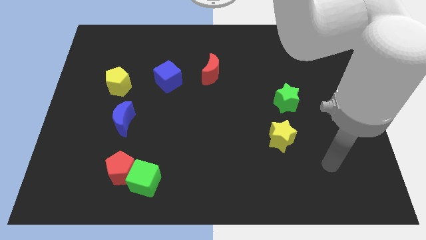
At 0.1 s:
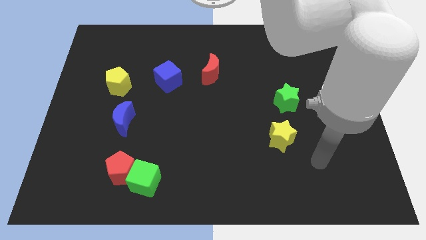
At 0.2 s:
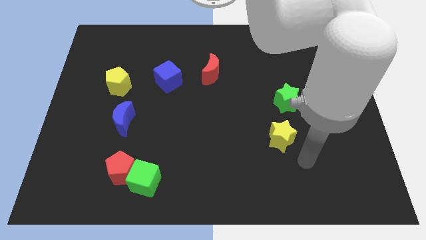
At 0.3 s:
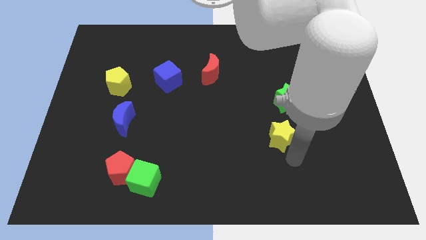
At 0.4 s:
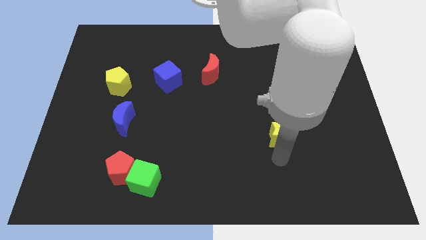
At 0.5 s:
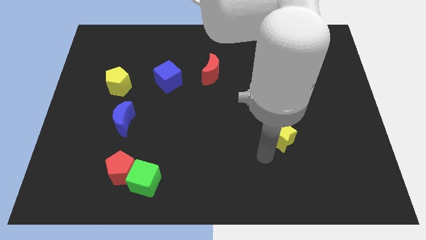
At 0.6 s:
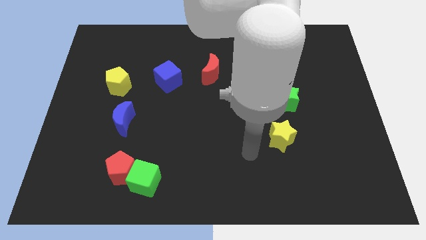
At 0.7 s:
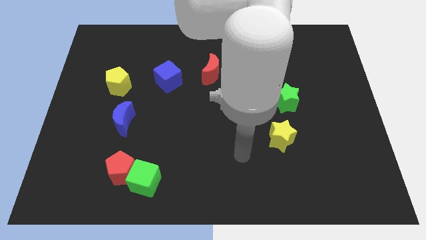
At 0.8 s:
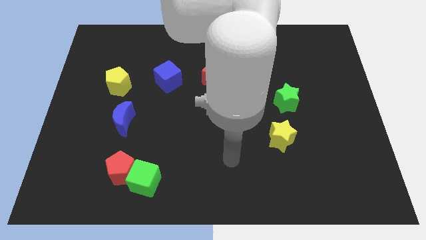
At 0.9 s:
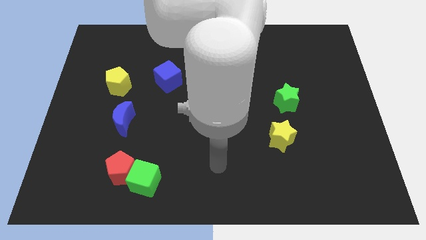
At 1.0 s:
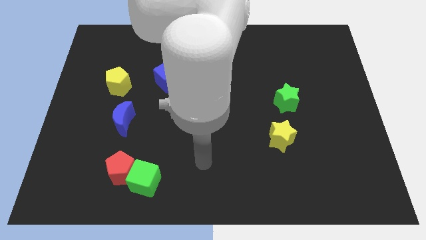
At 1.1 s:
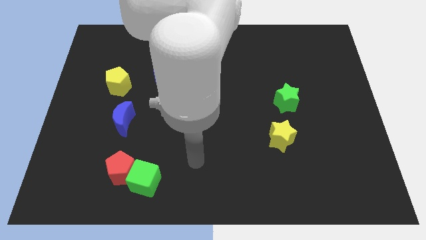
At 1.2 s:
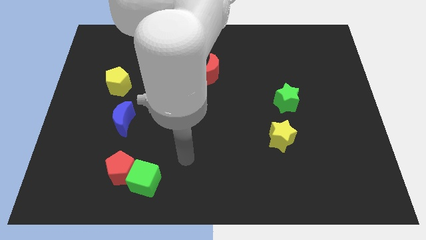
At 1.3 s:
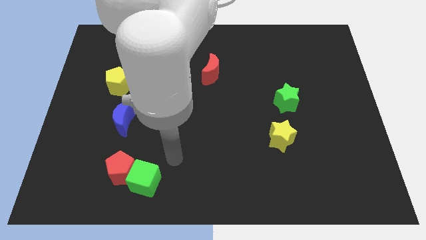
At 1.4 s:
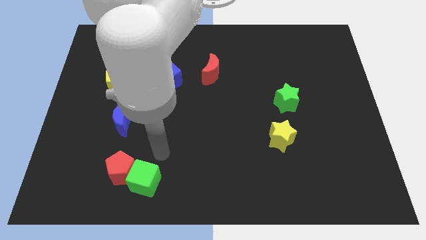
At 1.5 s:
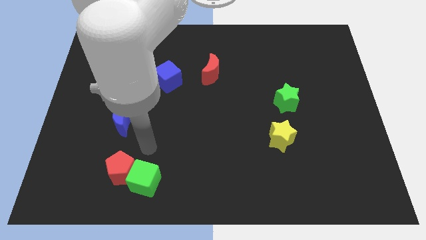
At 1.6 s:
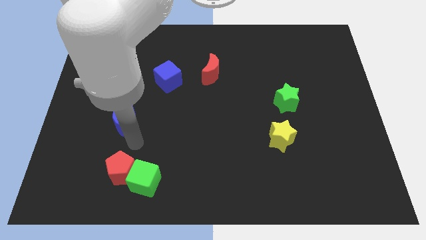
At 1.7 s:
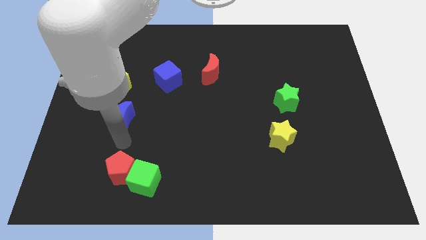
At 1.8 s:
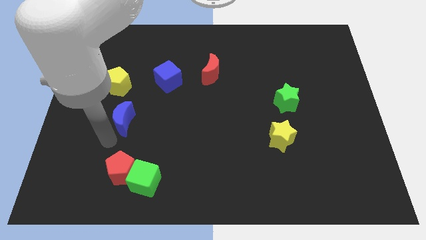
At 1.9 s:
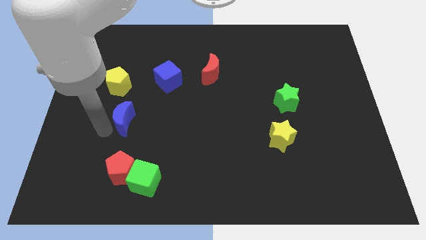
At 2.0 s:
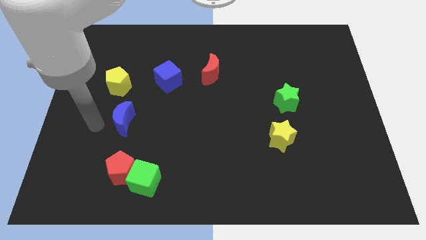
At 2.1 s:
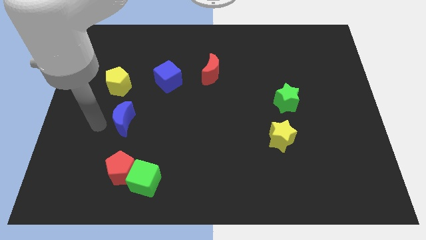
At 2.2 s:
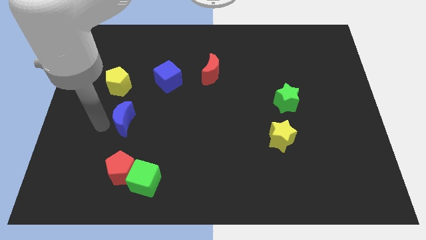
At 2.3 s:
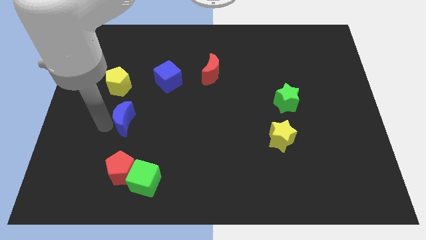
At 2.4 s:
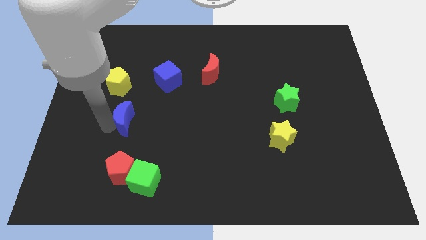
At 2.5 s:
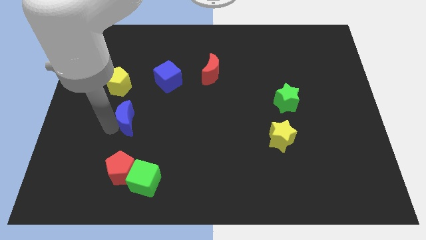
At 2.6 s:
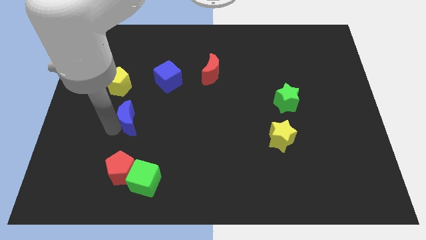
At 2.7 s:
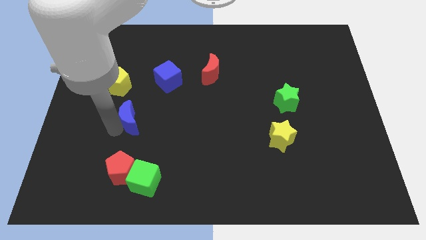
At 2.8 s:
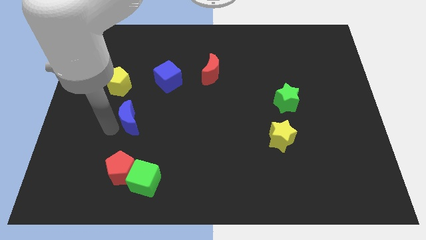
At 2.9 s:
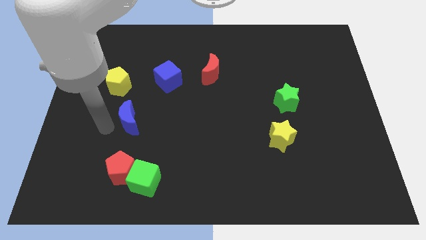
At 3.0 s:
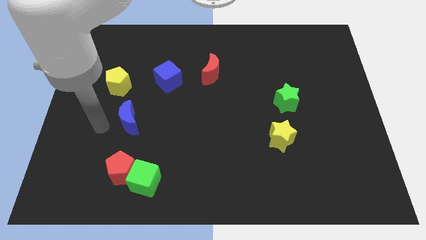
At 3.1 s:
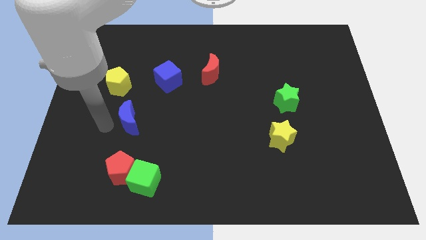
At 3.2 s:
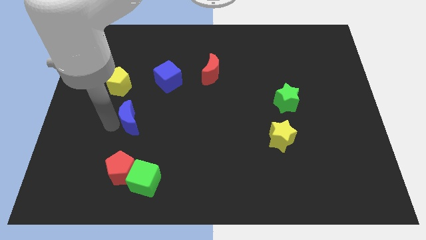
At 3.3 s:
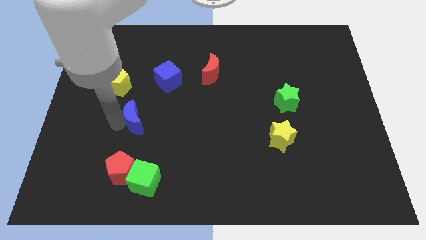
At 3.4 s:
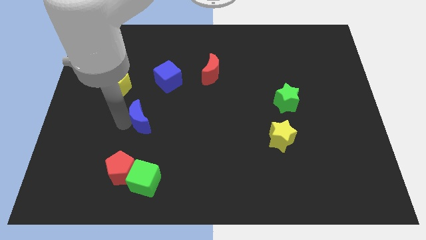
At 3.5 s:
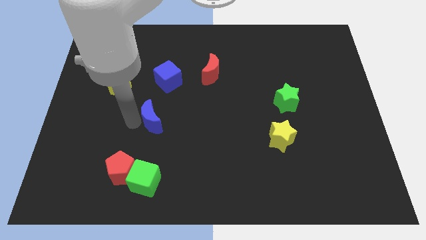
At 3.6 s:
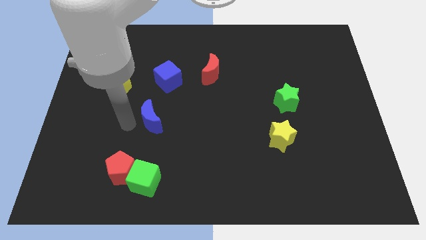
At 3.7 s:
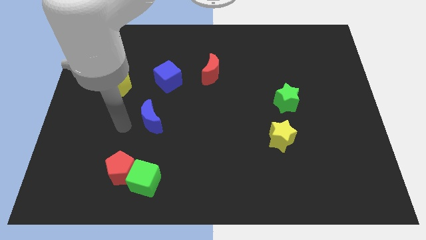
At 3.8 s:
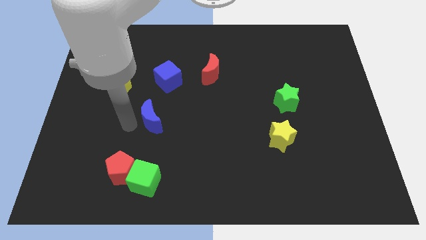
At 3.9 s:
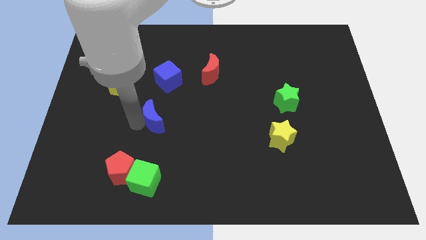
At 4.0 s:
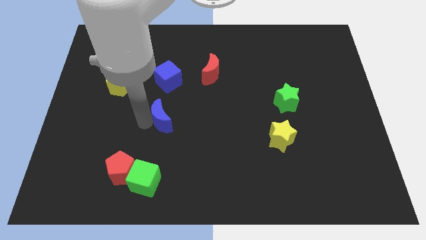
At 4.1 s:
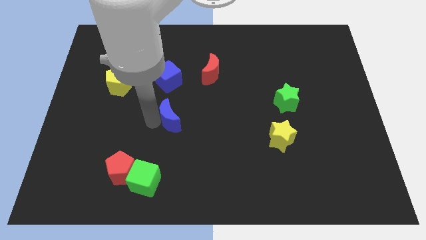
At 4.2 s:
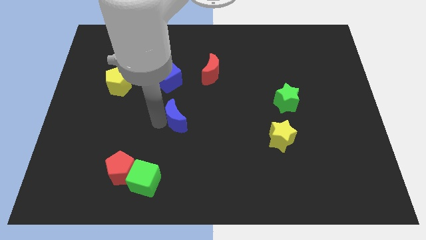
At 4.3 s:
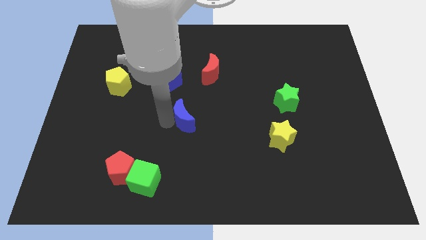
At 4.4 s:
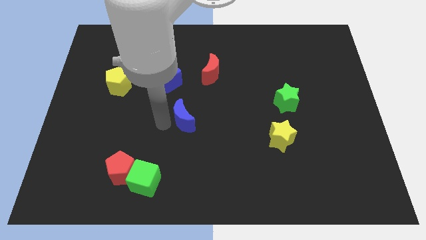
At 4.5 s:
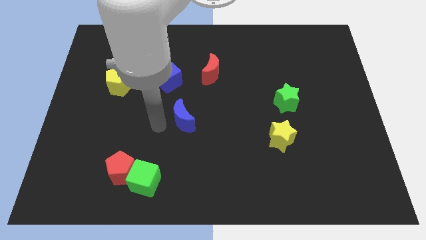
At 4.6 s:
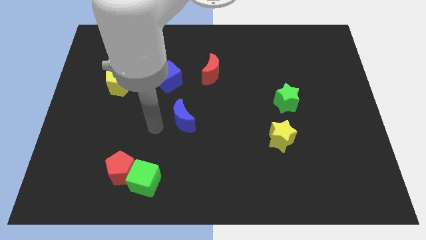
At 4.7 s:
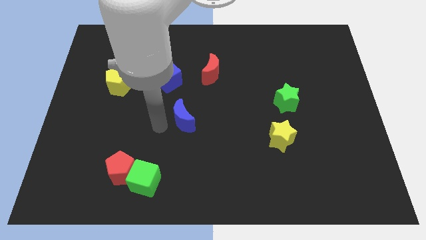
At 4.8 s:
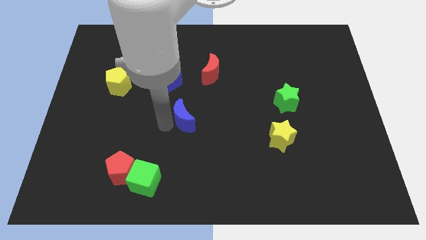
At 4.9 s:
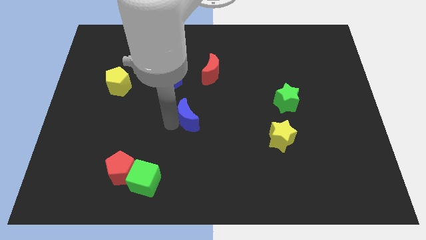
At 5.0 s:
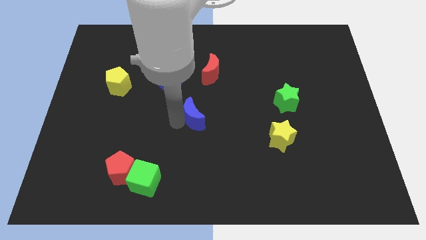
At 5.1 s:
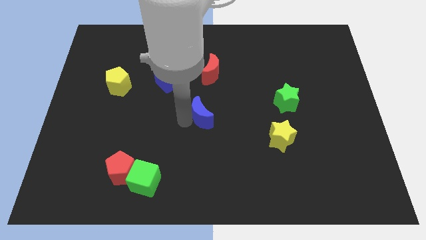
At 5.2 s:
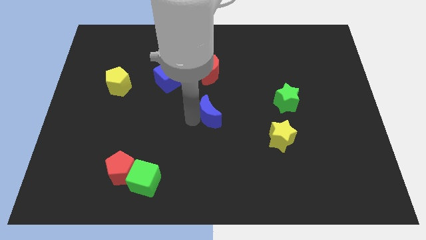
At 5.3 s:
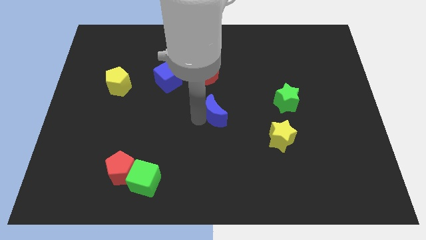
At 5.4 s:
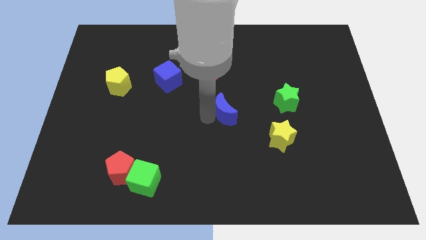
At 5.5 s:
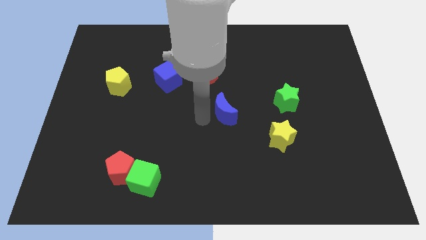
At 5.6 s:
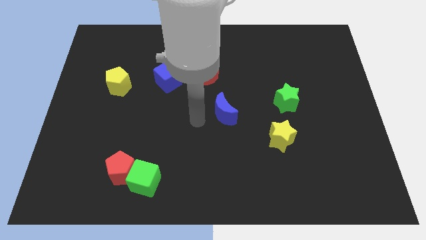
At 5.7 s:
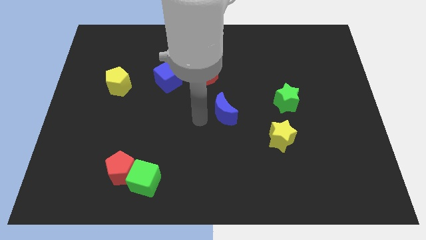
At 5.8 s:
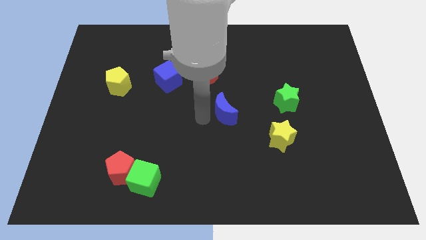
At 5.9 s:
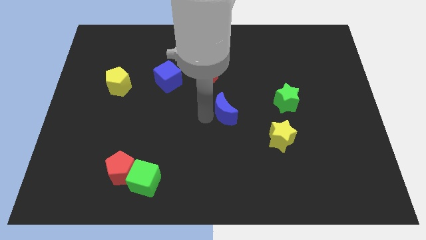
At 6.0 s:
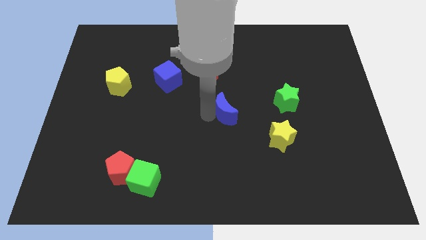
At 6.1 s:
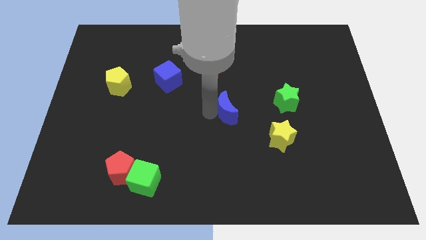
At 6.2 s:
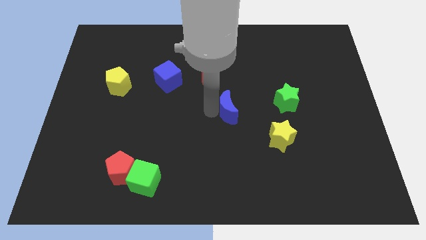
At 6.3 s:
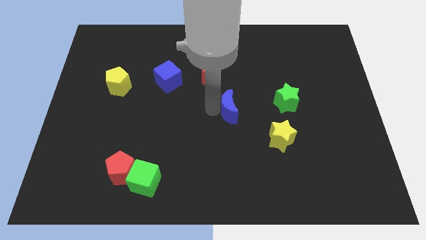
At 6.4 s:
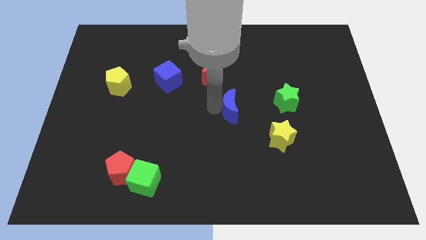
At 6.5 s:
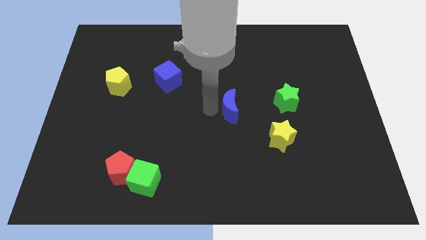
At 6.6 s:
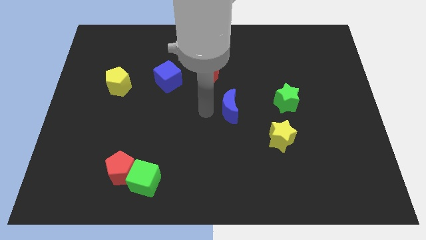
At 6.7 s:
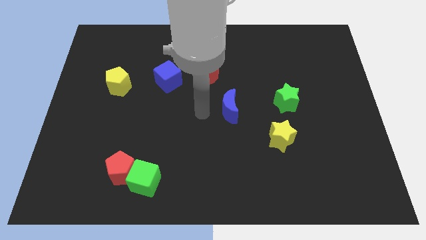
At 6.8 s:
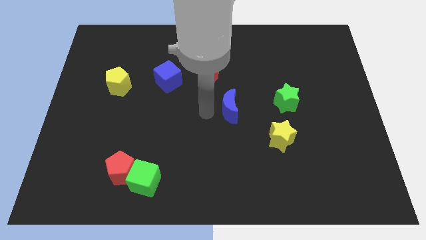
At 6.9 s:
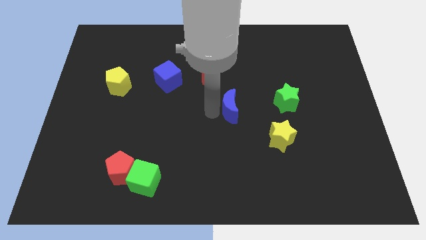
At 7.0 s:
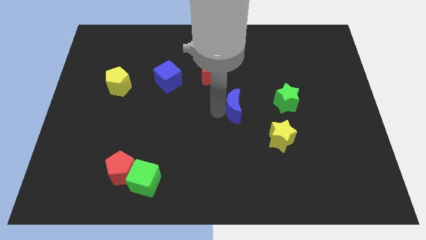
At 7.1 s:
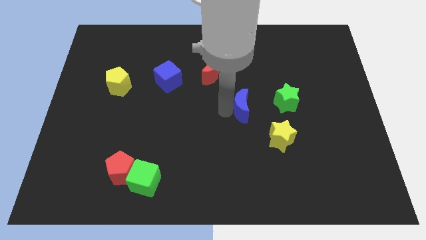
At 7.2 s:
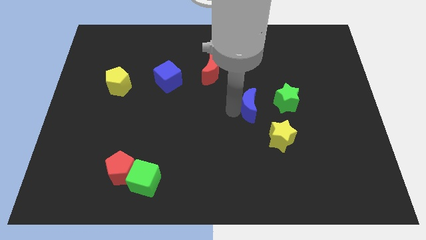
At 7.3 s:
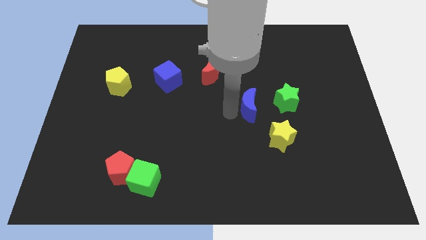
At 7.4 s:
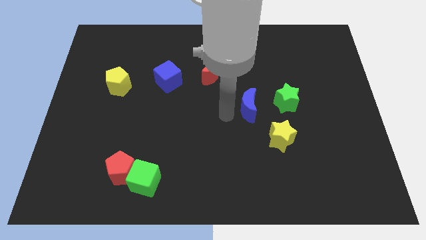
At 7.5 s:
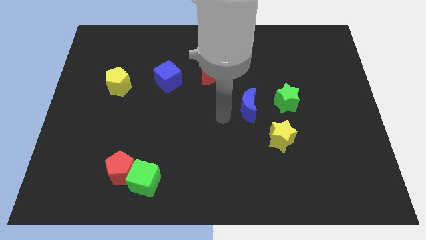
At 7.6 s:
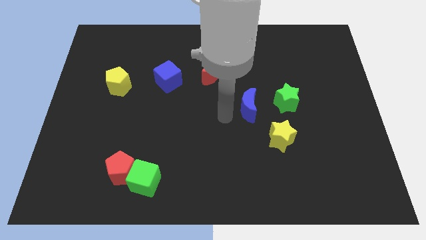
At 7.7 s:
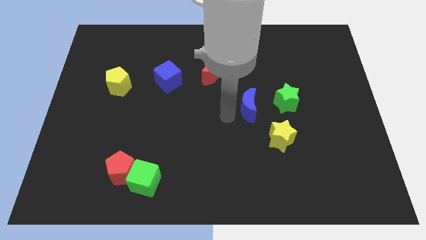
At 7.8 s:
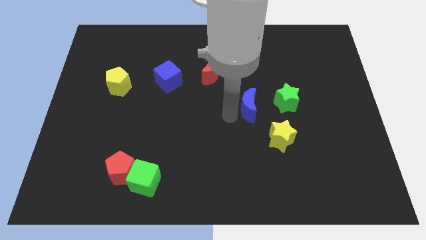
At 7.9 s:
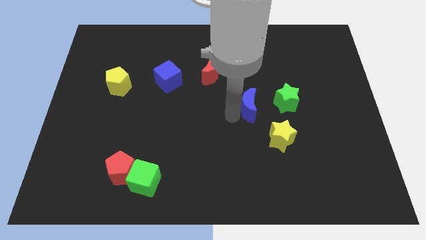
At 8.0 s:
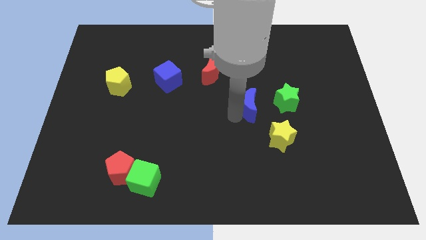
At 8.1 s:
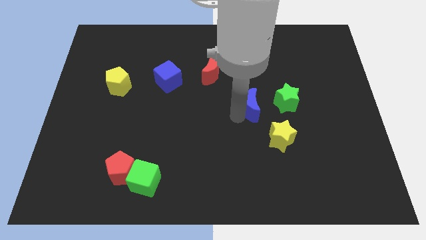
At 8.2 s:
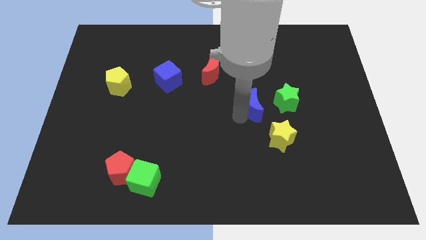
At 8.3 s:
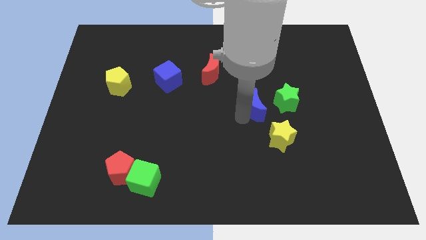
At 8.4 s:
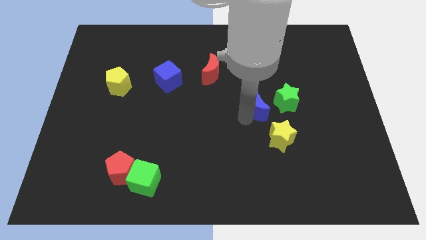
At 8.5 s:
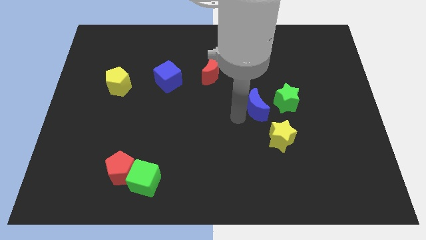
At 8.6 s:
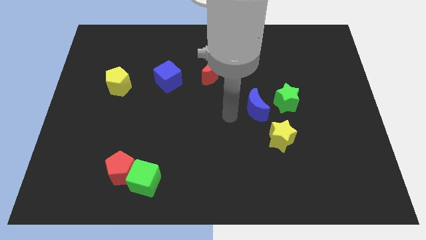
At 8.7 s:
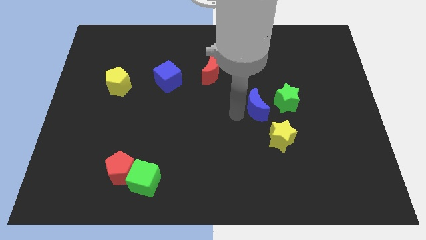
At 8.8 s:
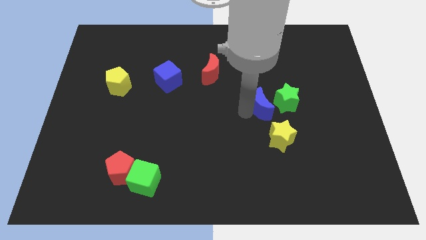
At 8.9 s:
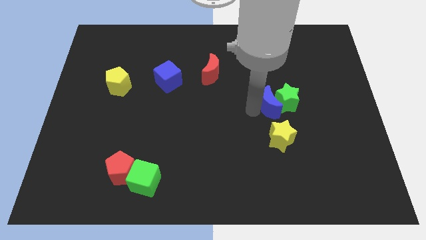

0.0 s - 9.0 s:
slide the blue moon to the green star
